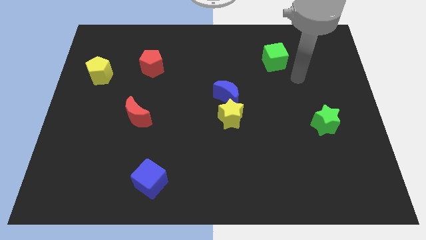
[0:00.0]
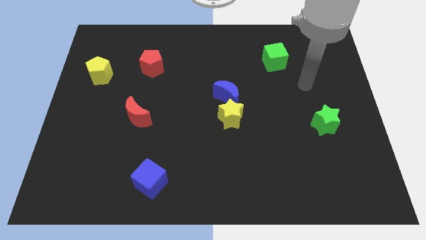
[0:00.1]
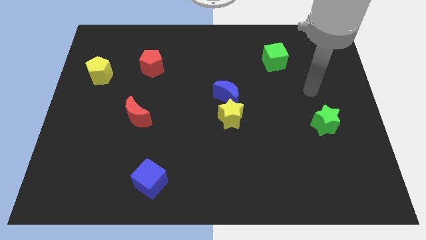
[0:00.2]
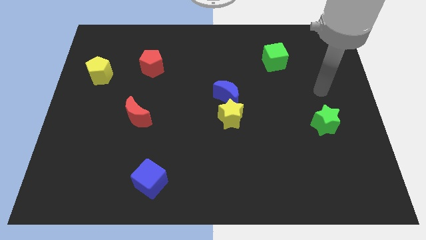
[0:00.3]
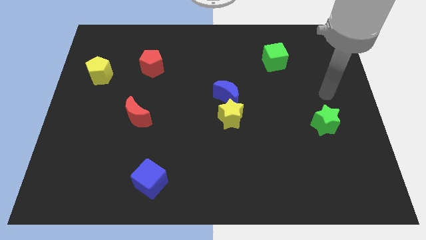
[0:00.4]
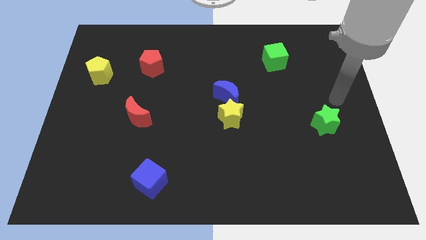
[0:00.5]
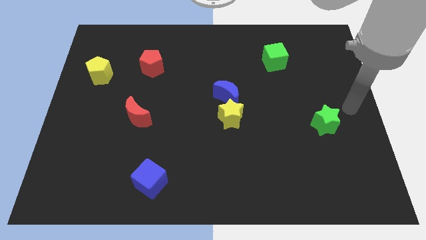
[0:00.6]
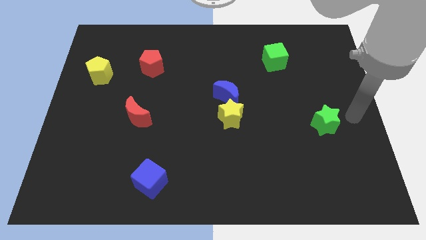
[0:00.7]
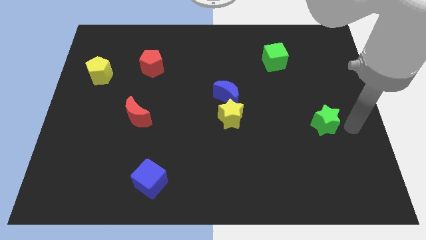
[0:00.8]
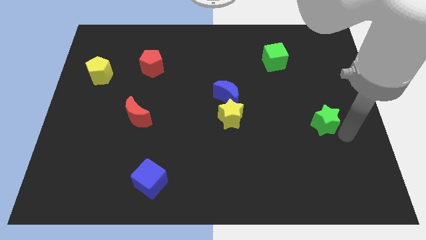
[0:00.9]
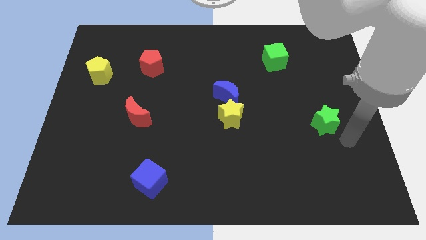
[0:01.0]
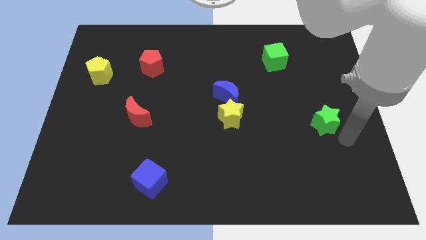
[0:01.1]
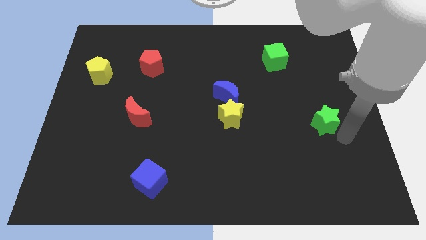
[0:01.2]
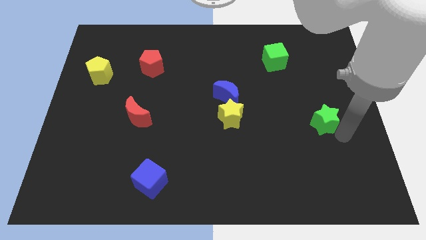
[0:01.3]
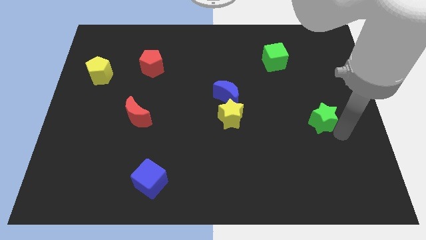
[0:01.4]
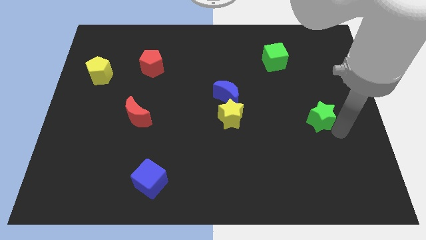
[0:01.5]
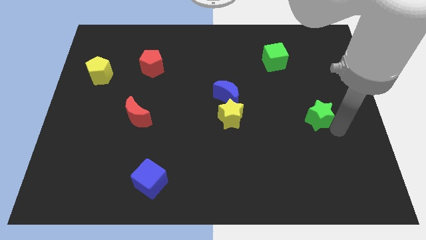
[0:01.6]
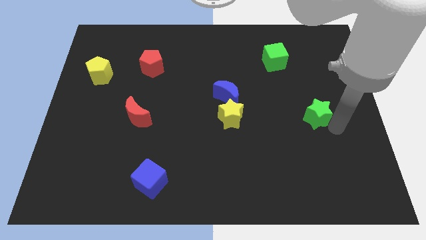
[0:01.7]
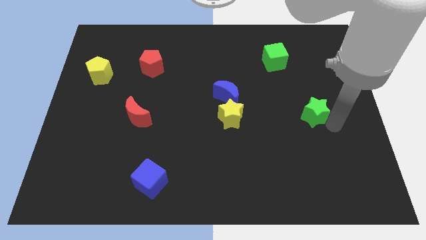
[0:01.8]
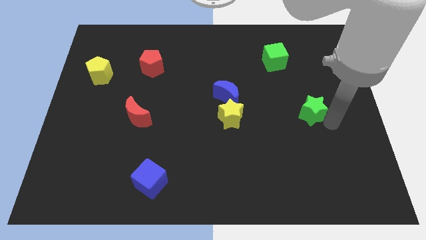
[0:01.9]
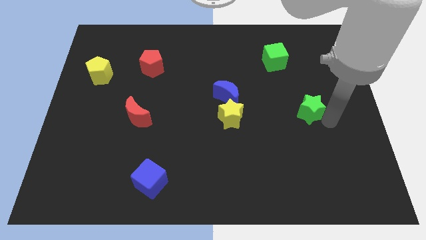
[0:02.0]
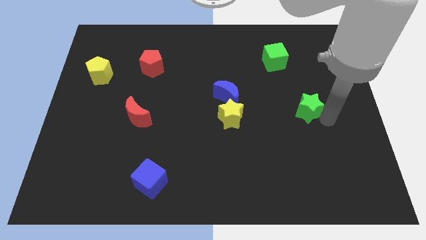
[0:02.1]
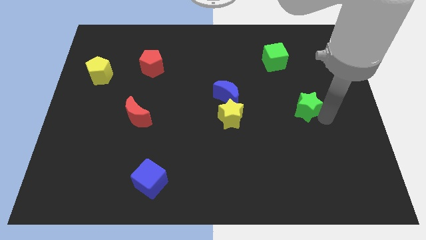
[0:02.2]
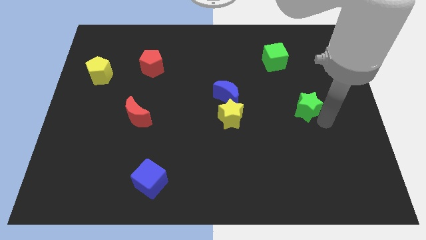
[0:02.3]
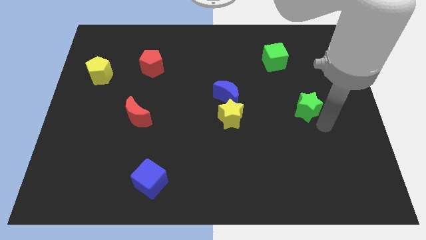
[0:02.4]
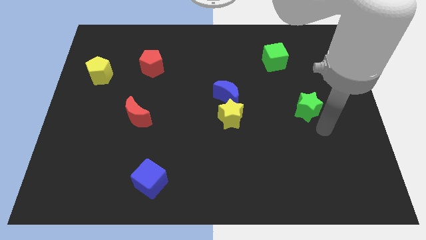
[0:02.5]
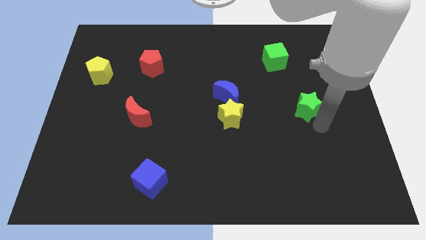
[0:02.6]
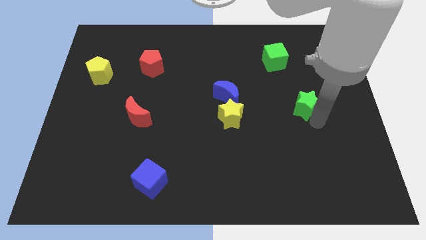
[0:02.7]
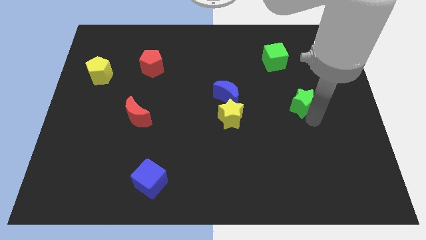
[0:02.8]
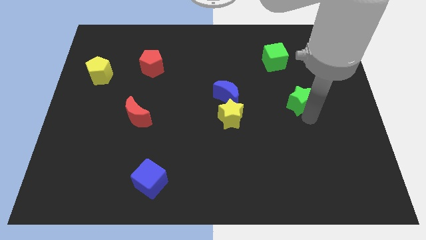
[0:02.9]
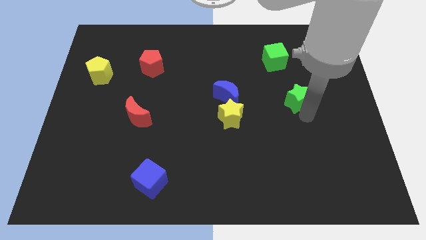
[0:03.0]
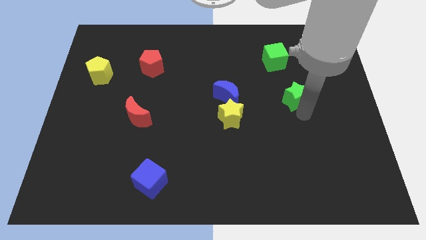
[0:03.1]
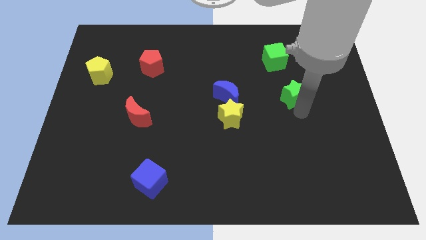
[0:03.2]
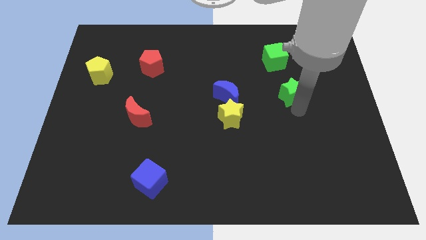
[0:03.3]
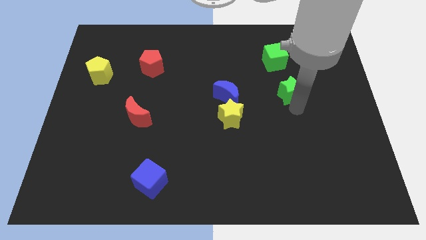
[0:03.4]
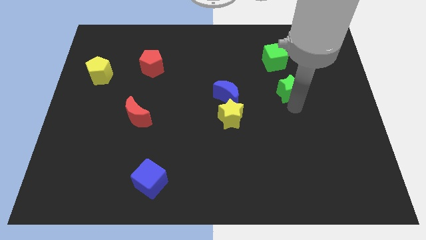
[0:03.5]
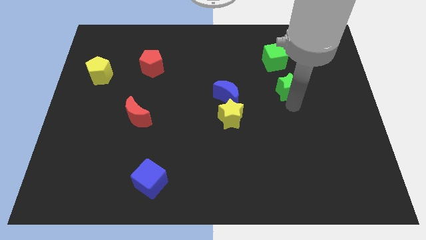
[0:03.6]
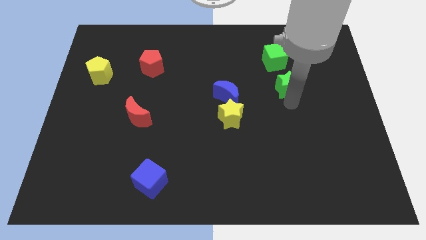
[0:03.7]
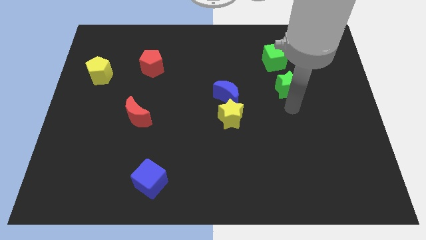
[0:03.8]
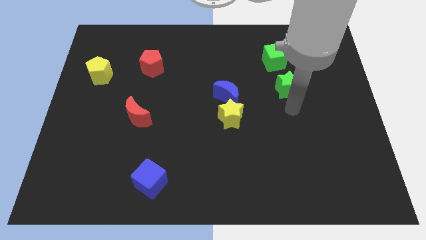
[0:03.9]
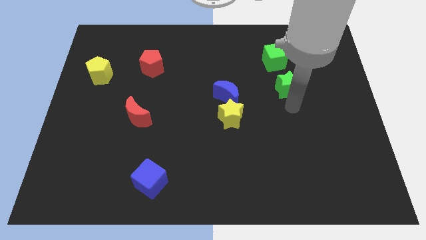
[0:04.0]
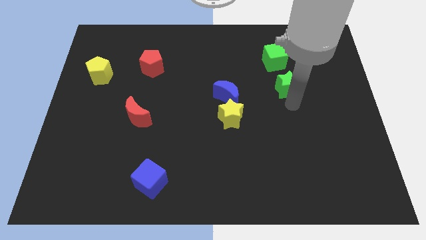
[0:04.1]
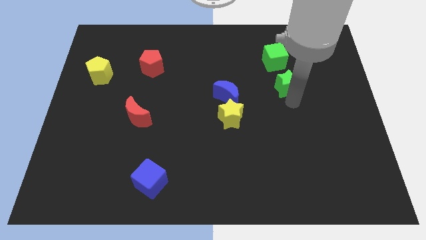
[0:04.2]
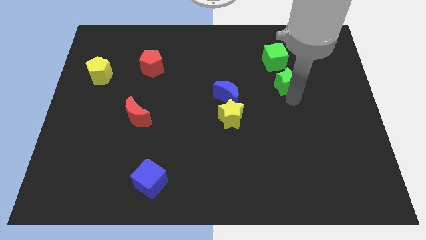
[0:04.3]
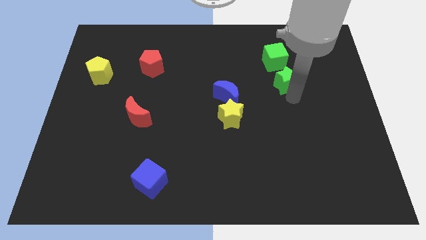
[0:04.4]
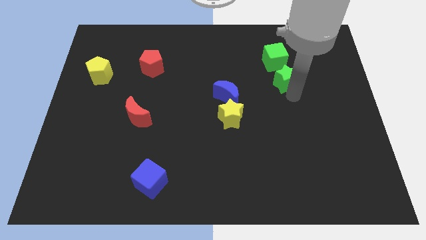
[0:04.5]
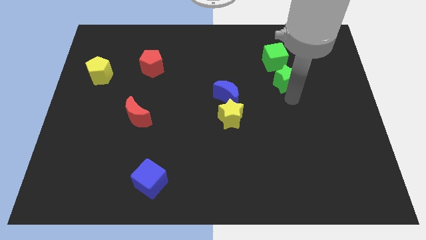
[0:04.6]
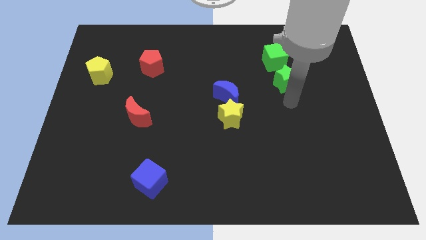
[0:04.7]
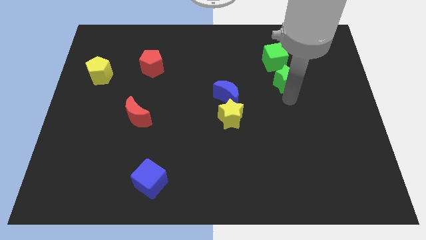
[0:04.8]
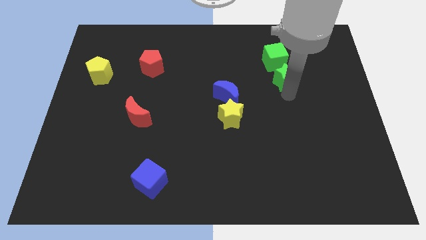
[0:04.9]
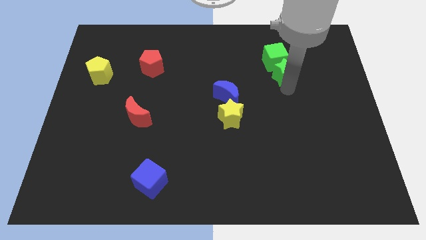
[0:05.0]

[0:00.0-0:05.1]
push the green star close to the green cube

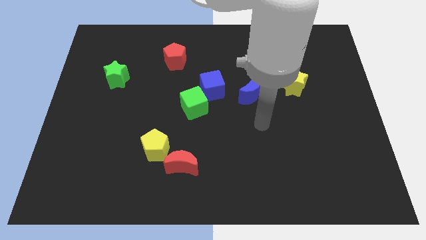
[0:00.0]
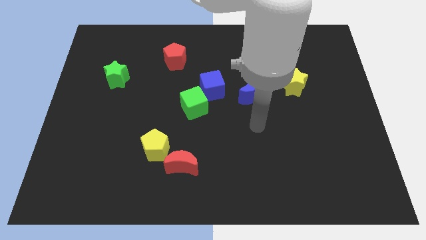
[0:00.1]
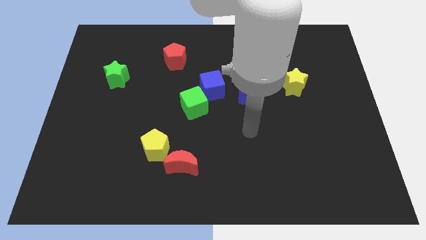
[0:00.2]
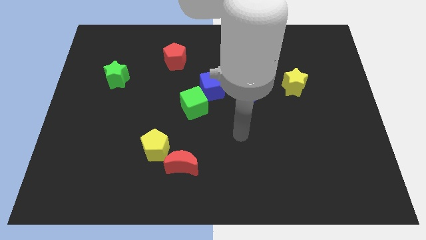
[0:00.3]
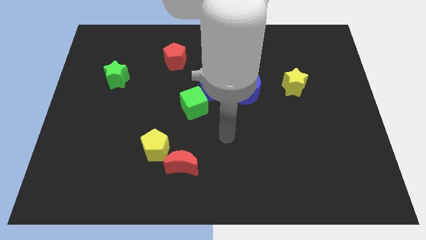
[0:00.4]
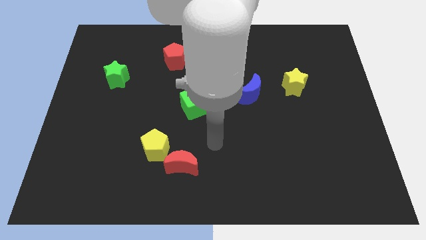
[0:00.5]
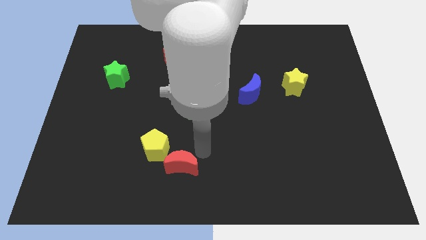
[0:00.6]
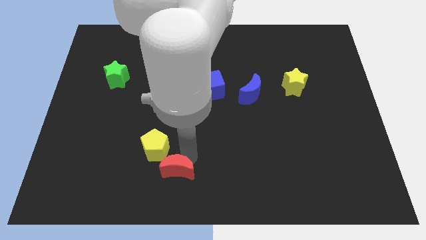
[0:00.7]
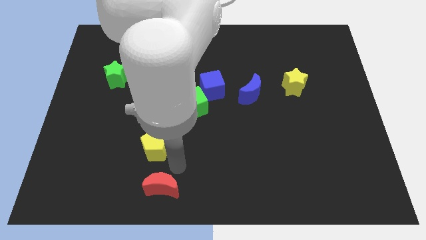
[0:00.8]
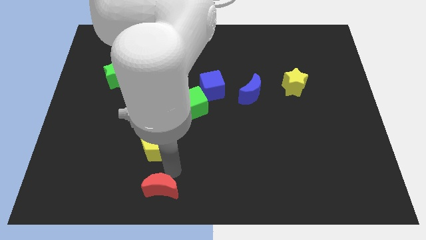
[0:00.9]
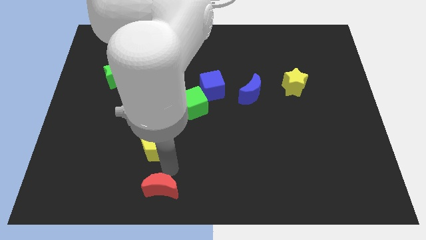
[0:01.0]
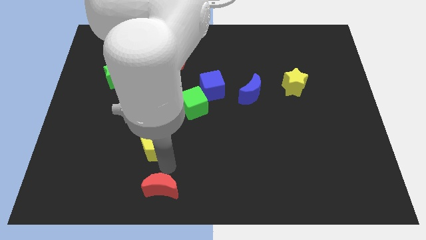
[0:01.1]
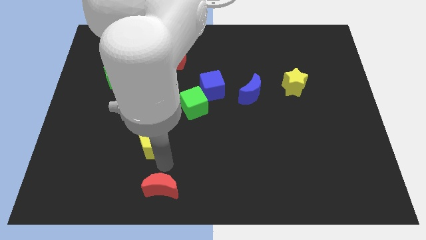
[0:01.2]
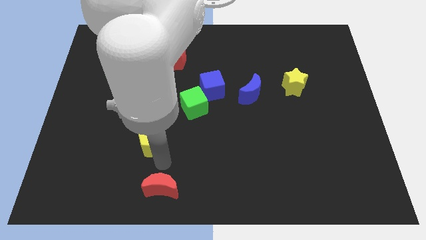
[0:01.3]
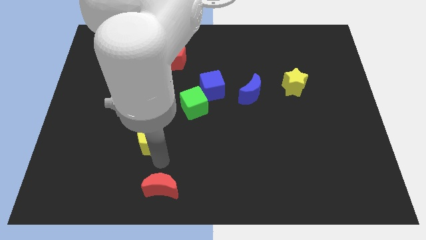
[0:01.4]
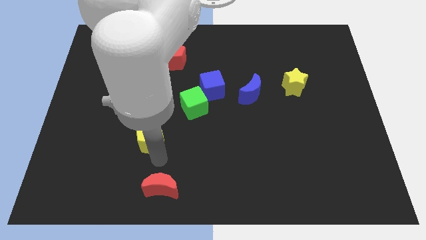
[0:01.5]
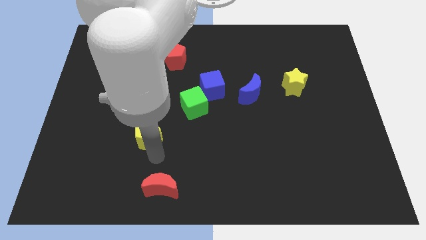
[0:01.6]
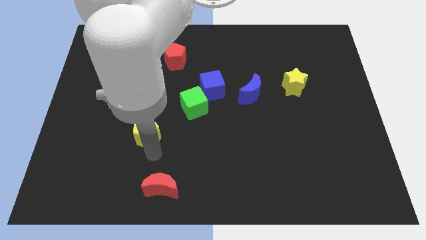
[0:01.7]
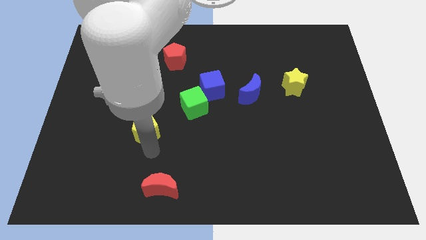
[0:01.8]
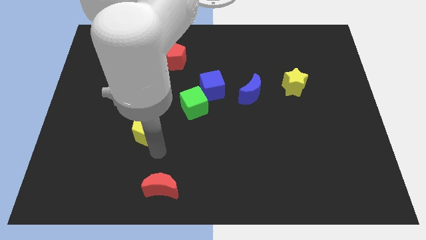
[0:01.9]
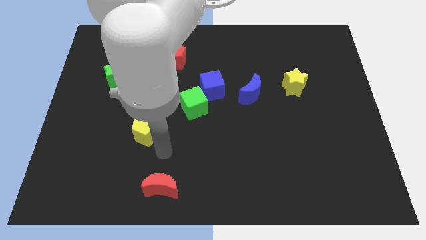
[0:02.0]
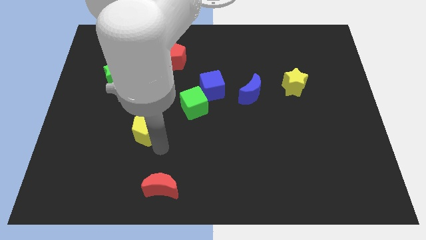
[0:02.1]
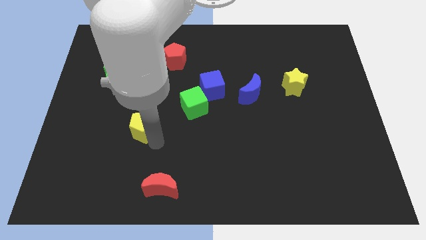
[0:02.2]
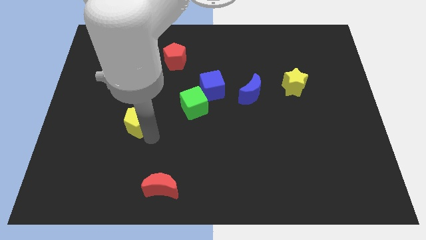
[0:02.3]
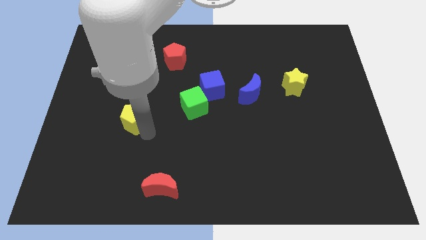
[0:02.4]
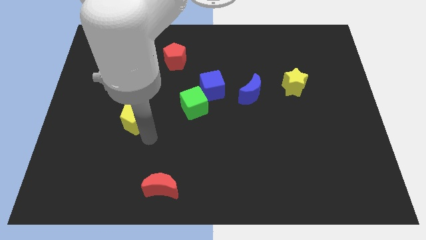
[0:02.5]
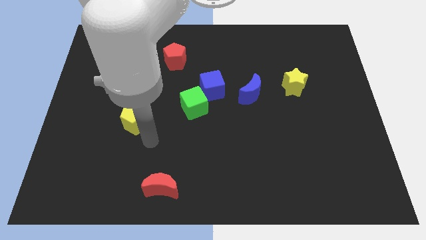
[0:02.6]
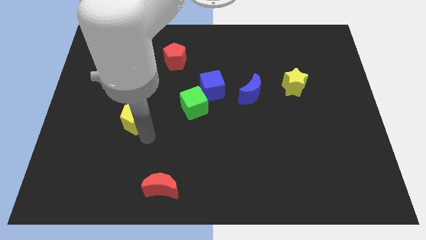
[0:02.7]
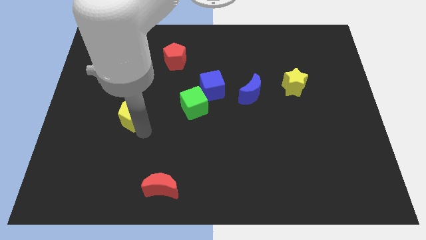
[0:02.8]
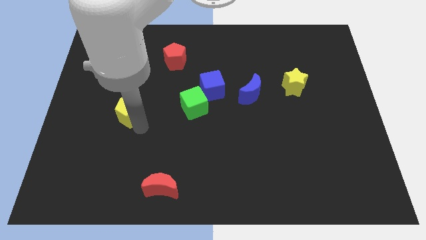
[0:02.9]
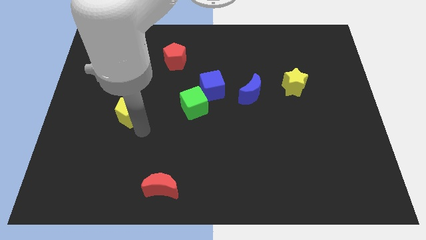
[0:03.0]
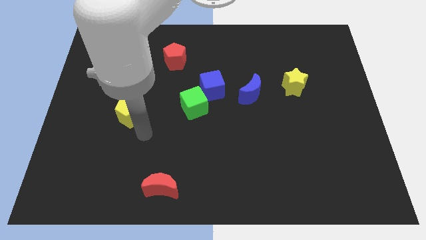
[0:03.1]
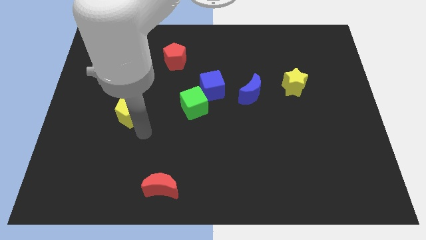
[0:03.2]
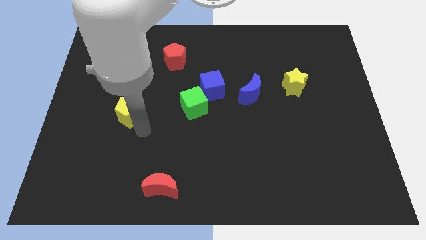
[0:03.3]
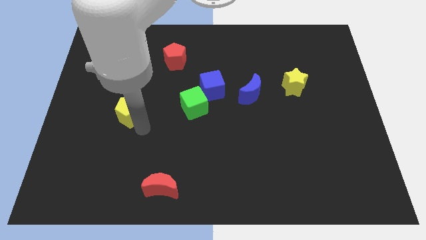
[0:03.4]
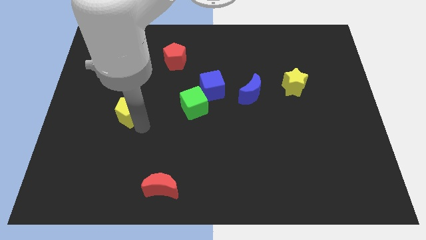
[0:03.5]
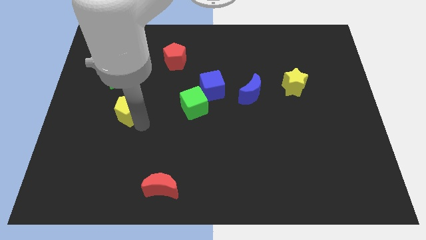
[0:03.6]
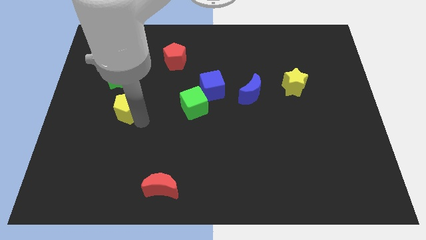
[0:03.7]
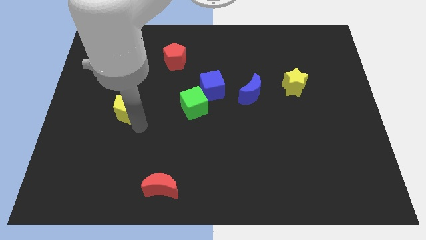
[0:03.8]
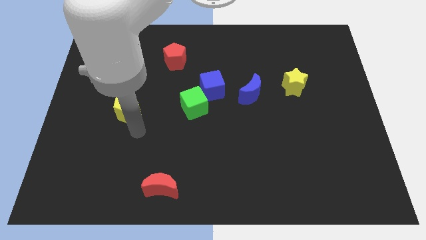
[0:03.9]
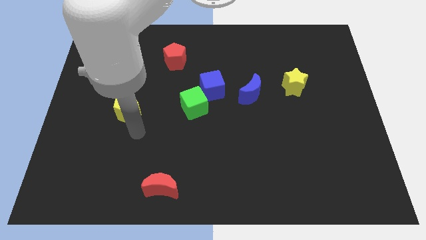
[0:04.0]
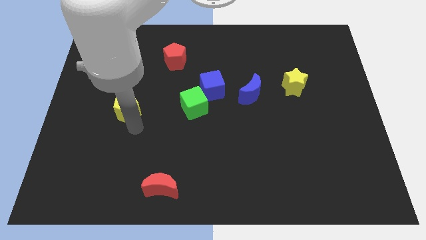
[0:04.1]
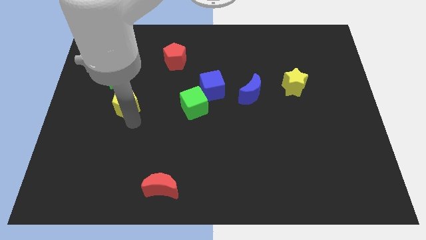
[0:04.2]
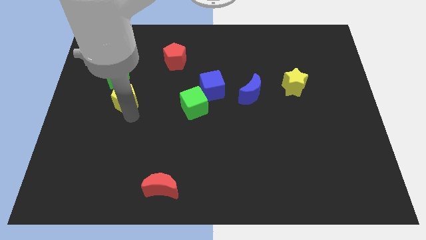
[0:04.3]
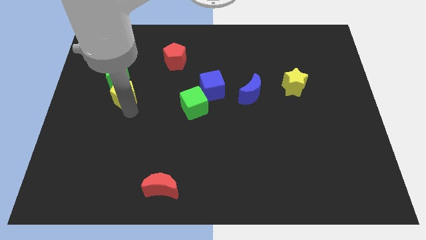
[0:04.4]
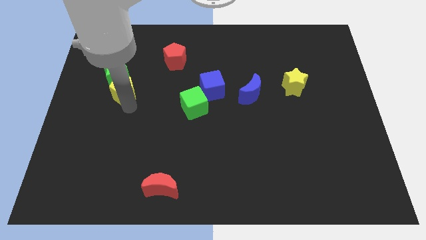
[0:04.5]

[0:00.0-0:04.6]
push the yellow pentagon next to the green star
